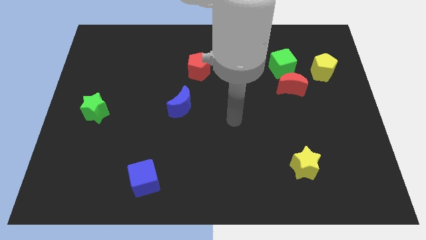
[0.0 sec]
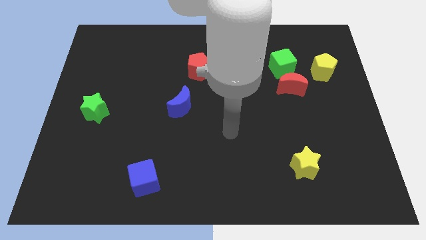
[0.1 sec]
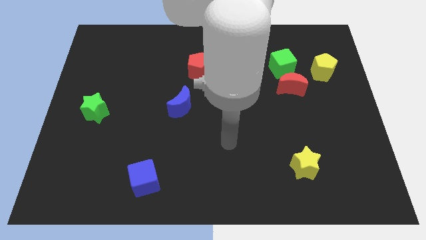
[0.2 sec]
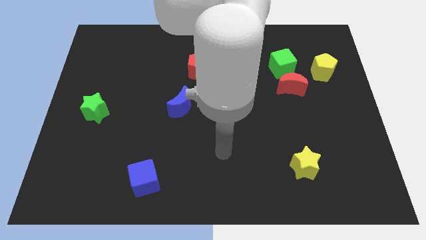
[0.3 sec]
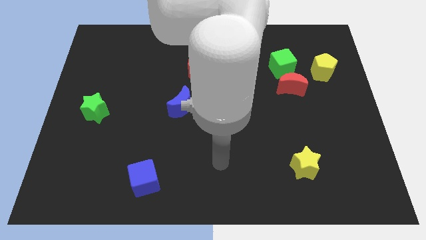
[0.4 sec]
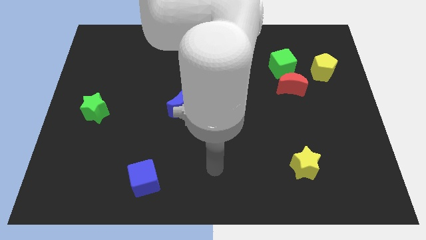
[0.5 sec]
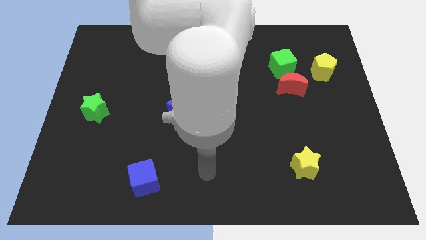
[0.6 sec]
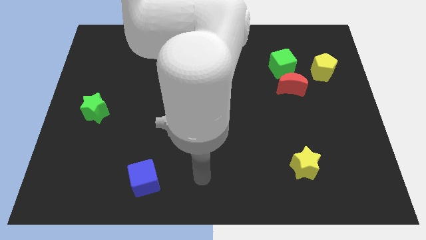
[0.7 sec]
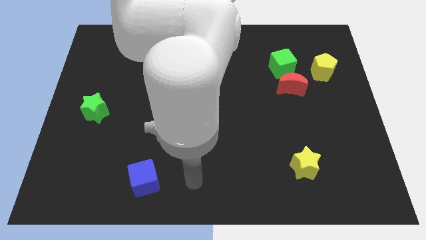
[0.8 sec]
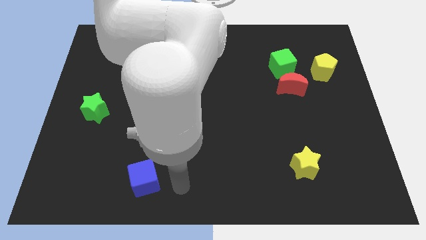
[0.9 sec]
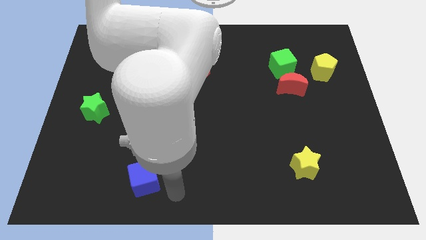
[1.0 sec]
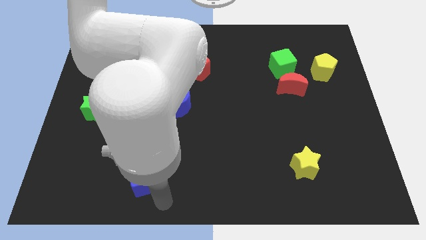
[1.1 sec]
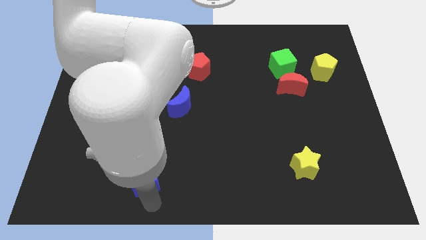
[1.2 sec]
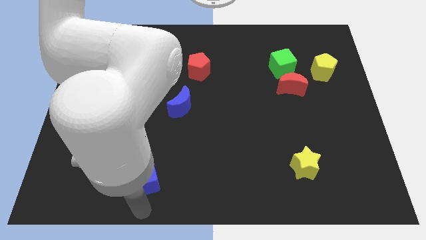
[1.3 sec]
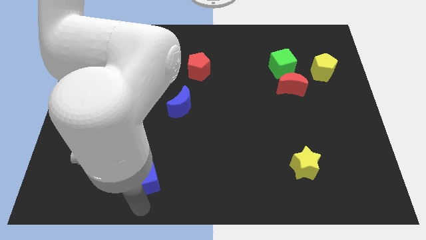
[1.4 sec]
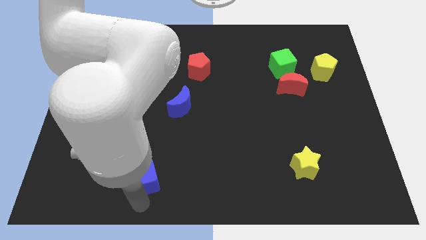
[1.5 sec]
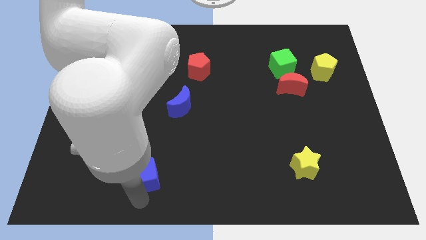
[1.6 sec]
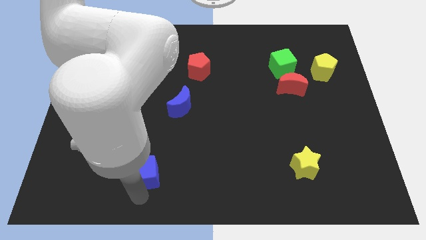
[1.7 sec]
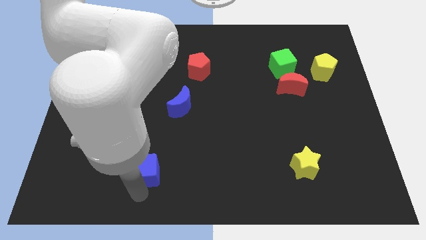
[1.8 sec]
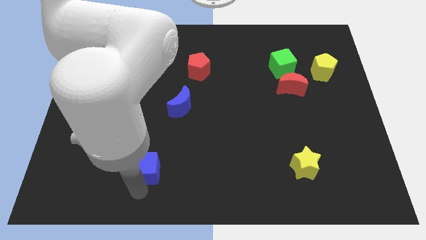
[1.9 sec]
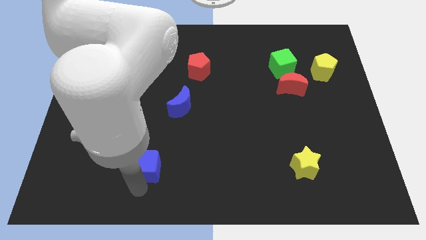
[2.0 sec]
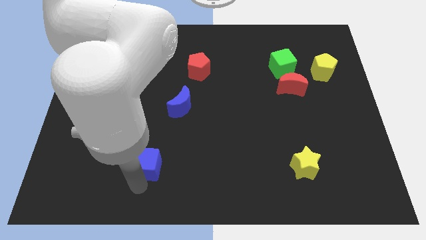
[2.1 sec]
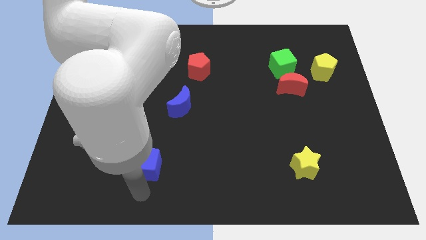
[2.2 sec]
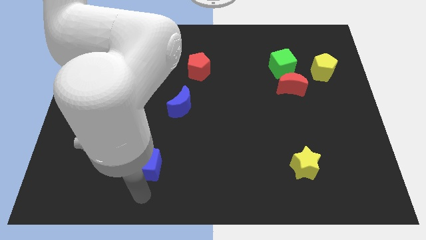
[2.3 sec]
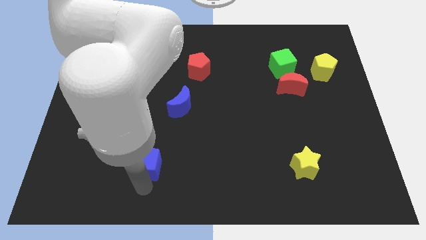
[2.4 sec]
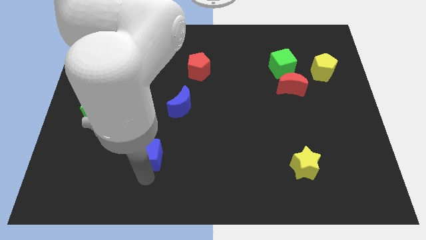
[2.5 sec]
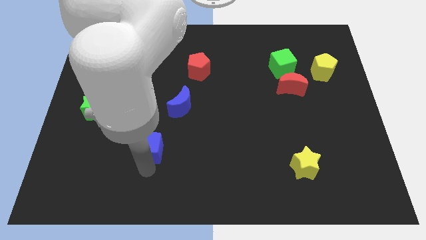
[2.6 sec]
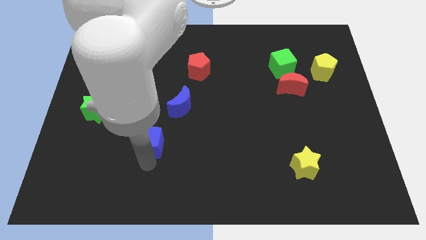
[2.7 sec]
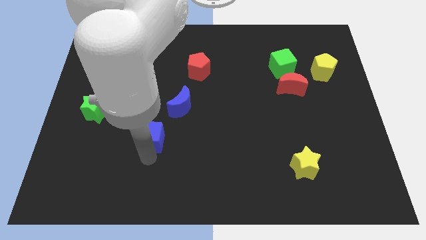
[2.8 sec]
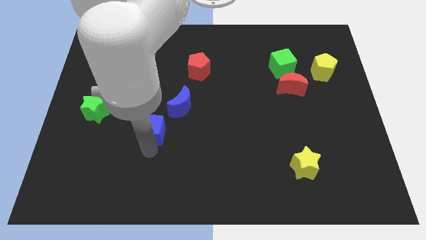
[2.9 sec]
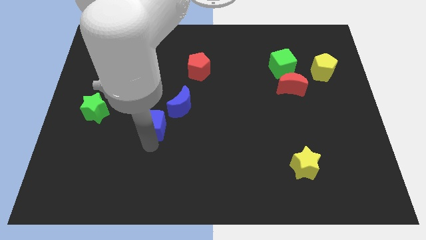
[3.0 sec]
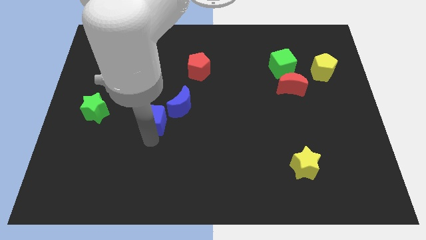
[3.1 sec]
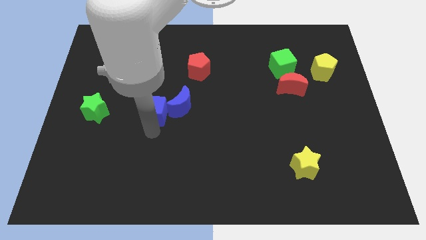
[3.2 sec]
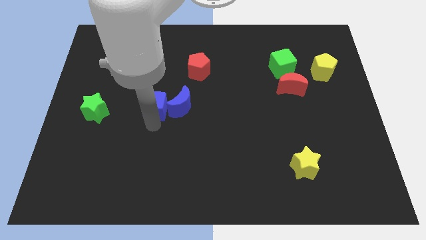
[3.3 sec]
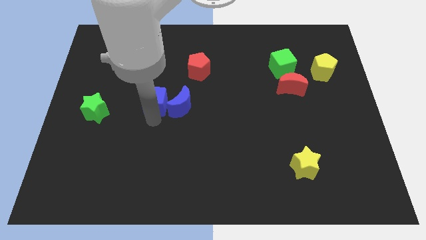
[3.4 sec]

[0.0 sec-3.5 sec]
push the blue cube upwards

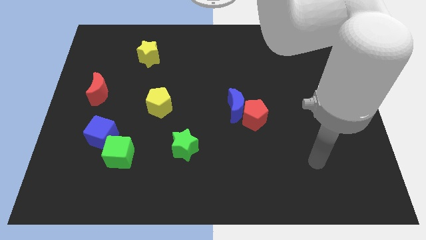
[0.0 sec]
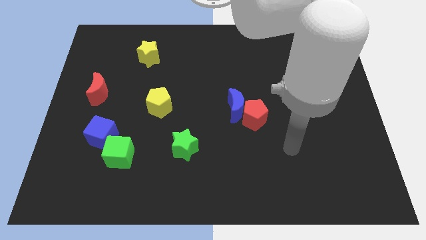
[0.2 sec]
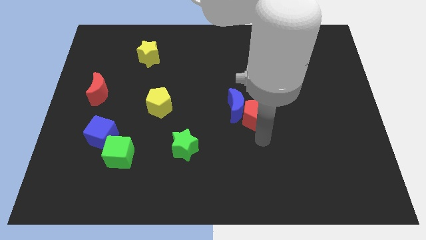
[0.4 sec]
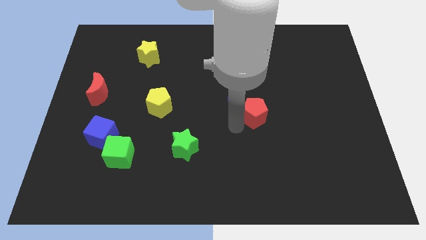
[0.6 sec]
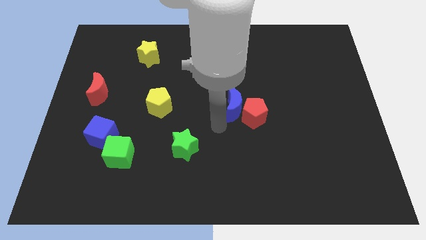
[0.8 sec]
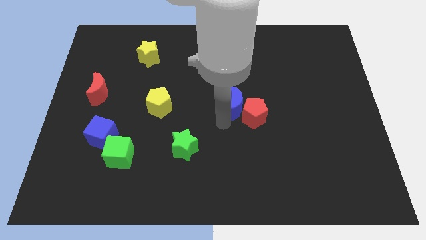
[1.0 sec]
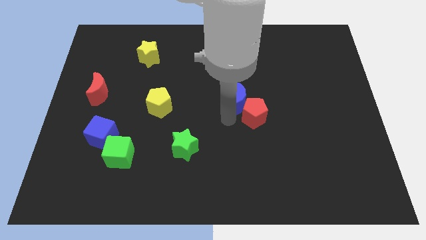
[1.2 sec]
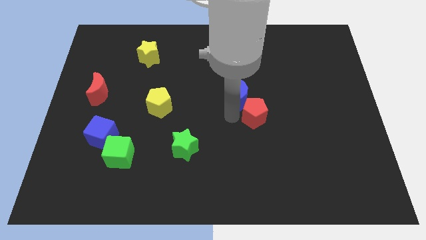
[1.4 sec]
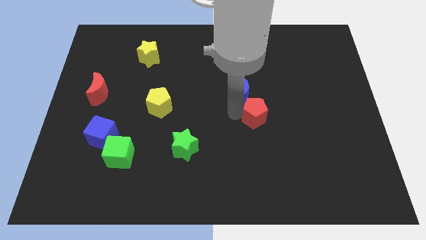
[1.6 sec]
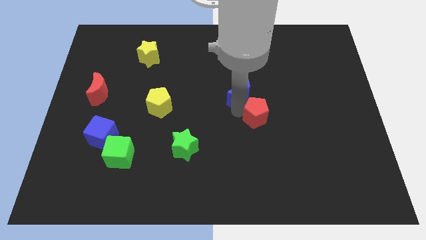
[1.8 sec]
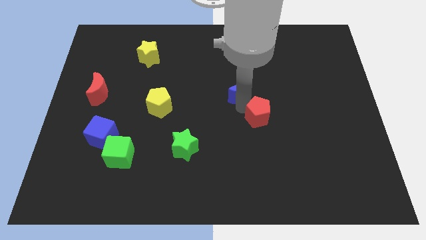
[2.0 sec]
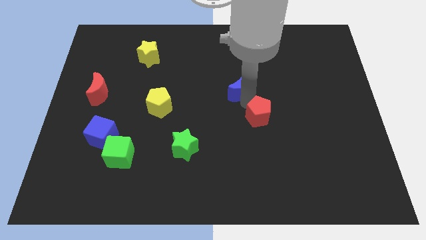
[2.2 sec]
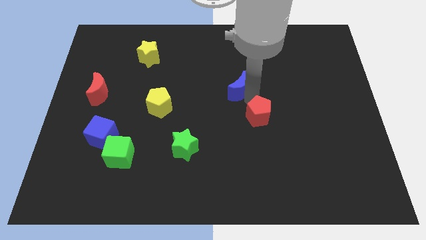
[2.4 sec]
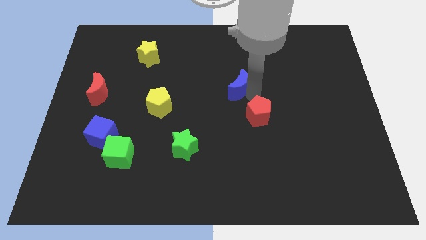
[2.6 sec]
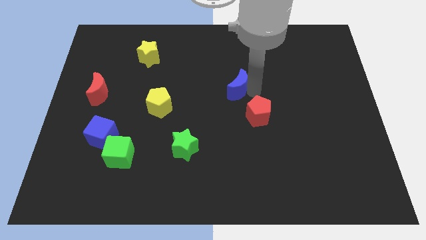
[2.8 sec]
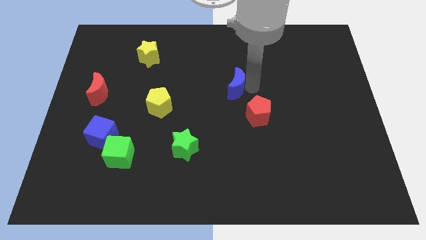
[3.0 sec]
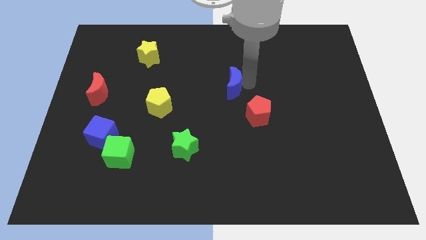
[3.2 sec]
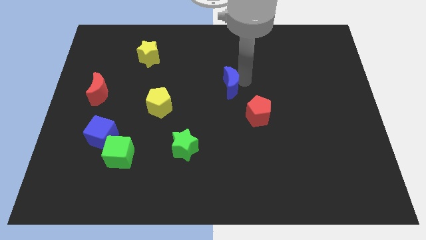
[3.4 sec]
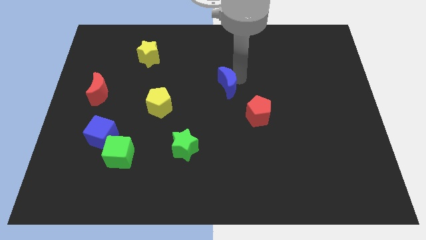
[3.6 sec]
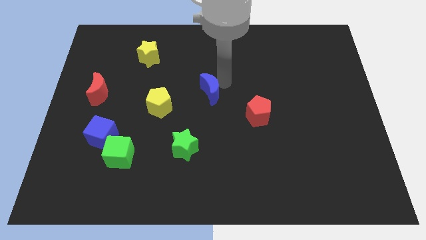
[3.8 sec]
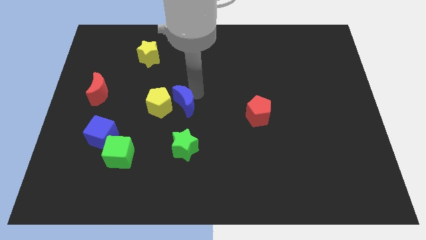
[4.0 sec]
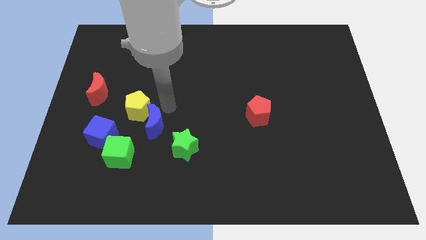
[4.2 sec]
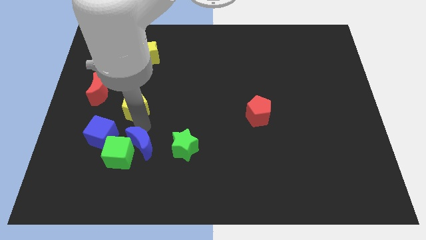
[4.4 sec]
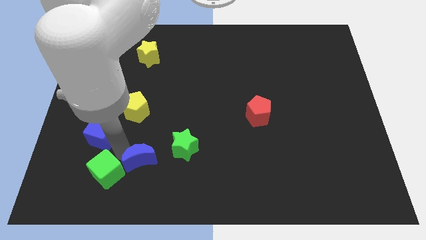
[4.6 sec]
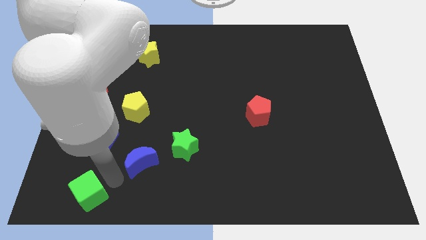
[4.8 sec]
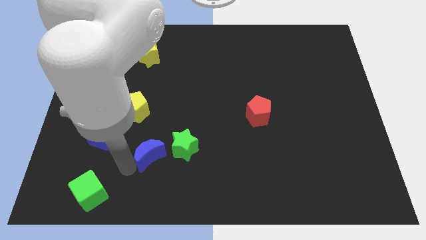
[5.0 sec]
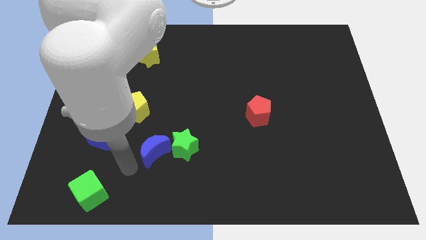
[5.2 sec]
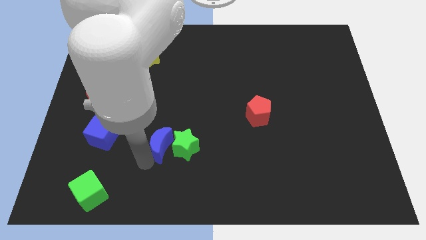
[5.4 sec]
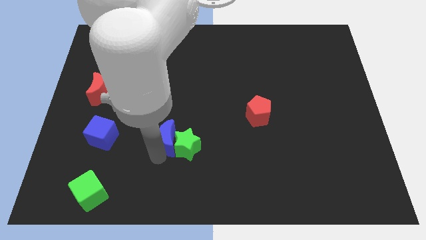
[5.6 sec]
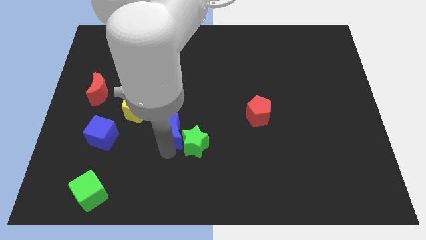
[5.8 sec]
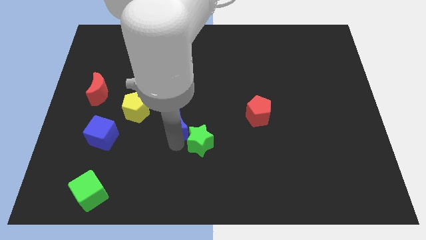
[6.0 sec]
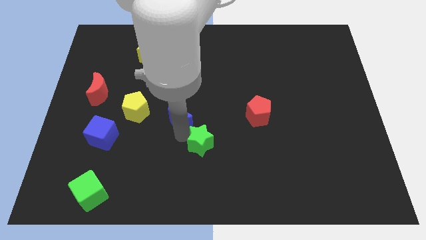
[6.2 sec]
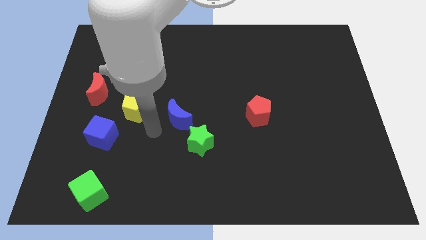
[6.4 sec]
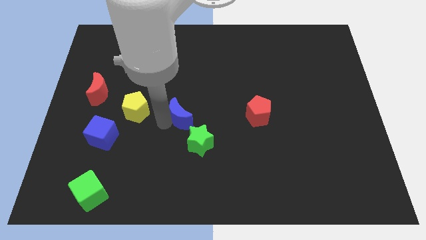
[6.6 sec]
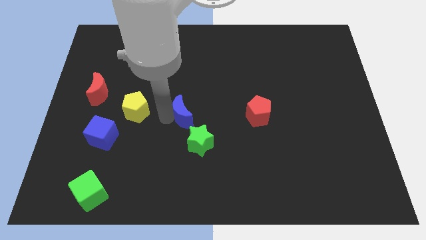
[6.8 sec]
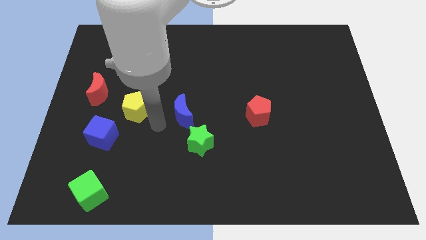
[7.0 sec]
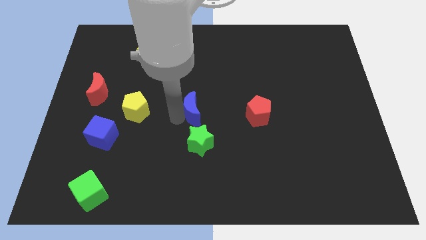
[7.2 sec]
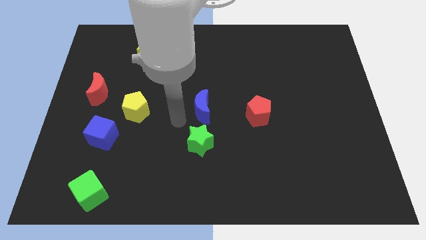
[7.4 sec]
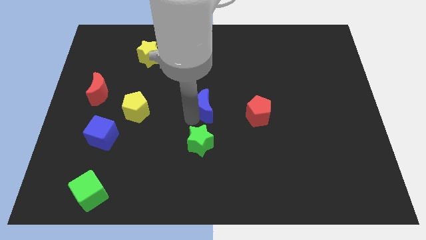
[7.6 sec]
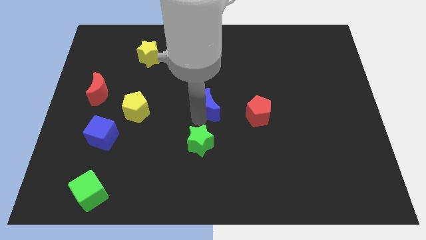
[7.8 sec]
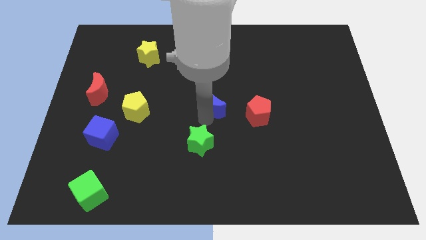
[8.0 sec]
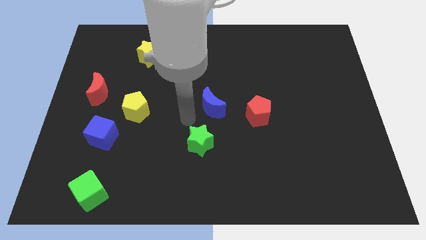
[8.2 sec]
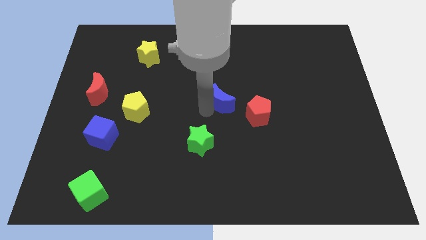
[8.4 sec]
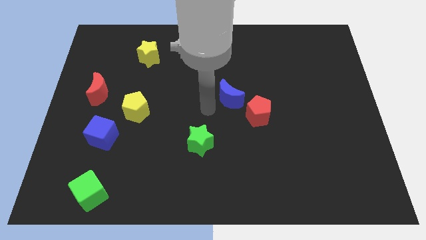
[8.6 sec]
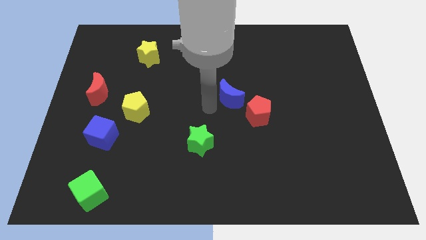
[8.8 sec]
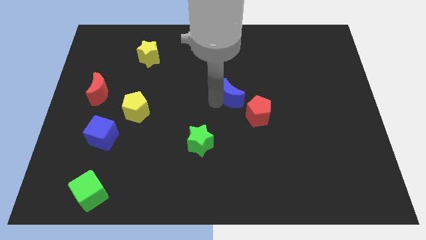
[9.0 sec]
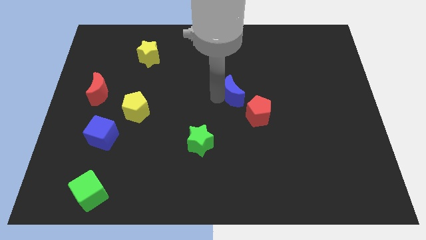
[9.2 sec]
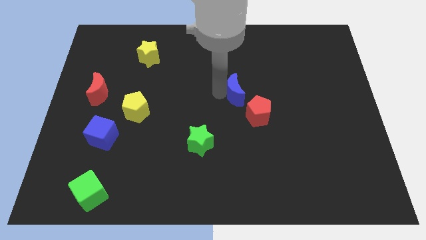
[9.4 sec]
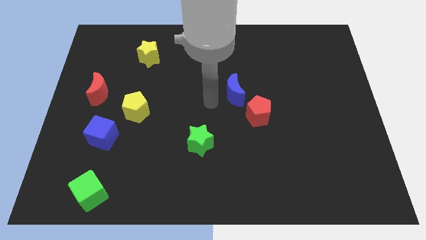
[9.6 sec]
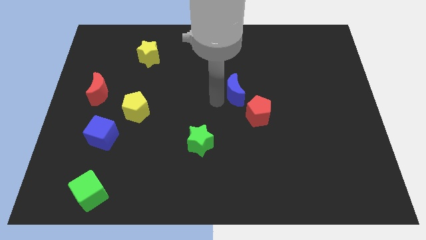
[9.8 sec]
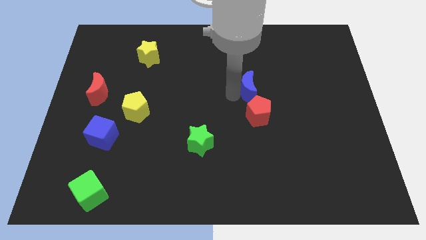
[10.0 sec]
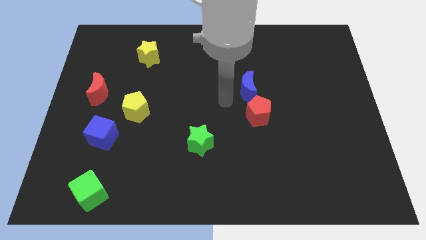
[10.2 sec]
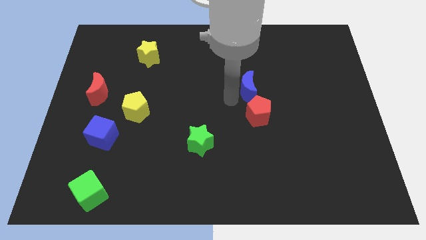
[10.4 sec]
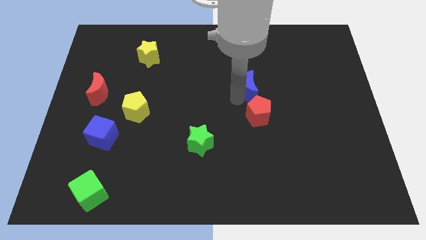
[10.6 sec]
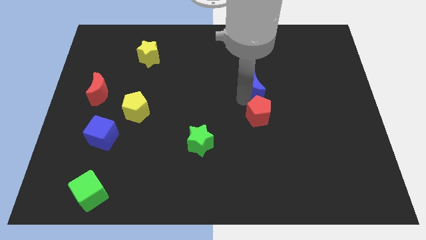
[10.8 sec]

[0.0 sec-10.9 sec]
move the blue moon a little bit up and then right
